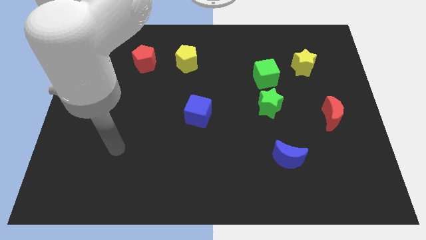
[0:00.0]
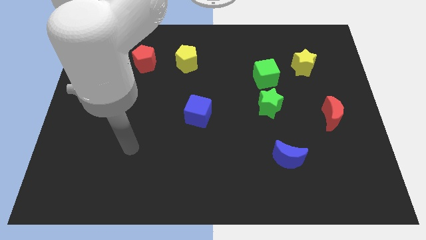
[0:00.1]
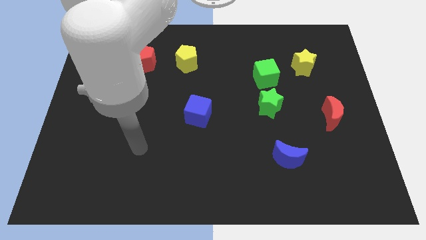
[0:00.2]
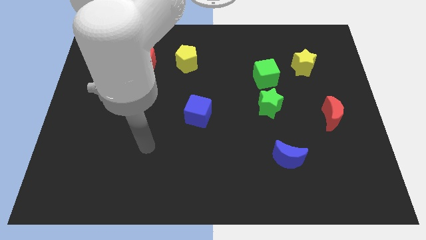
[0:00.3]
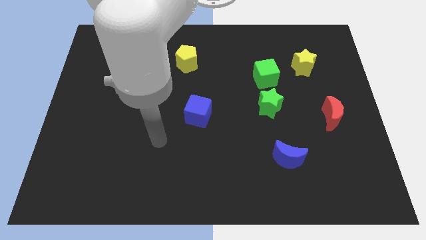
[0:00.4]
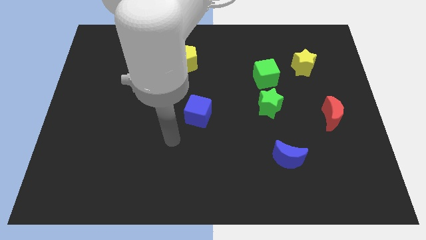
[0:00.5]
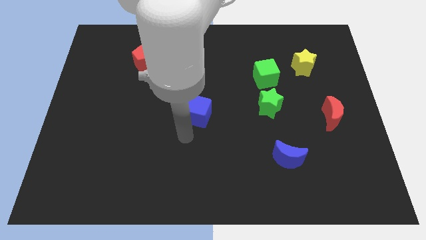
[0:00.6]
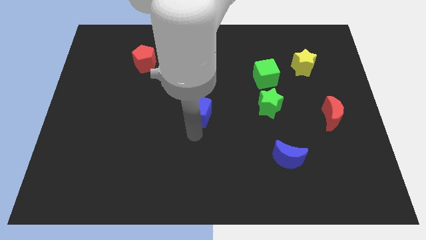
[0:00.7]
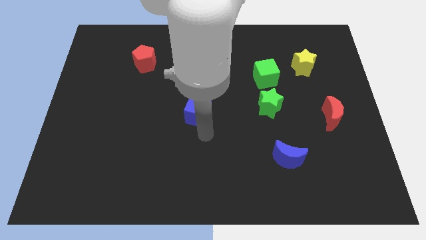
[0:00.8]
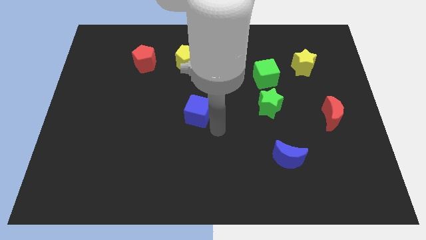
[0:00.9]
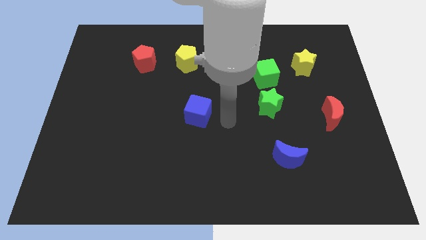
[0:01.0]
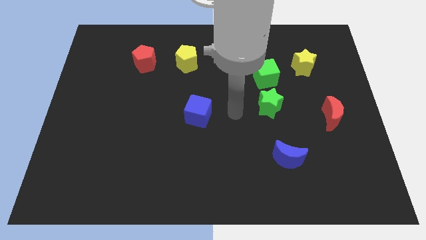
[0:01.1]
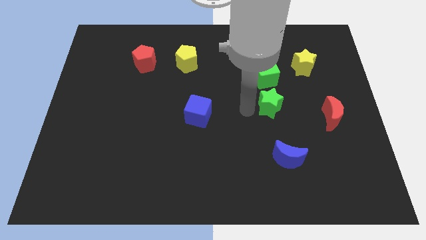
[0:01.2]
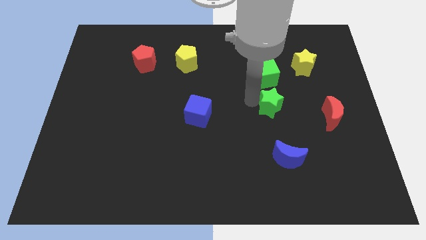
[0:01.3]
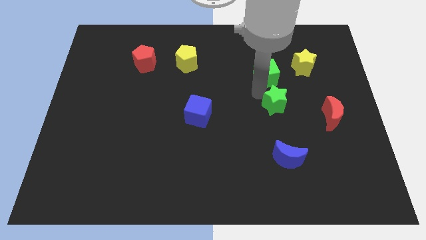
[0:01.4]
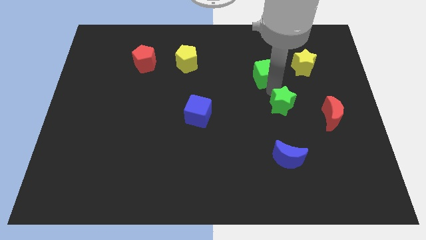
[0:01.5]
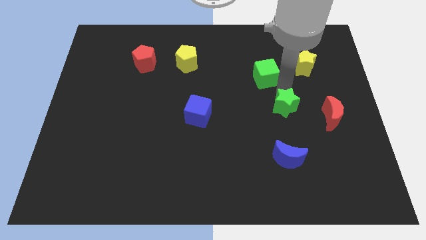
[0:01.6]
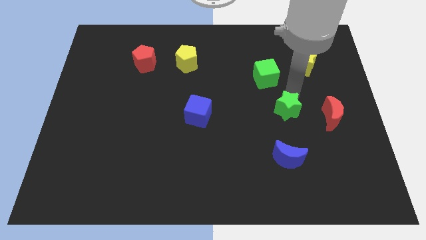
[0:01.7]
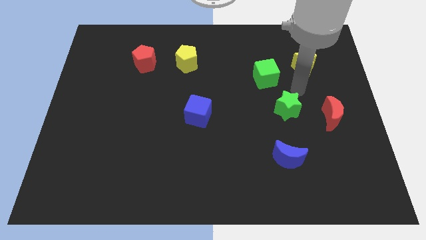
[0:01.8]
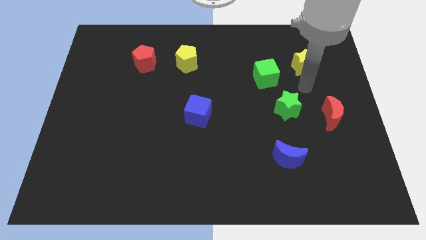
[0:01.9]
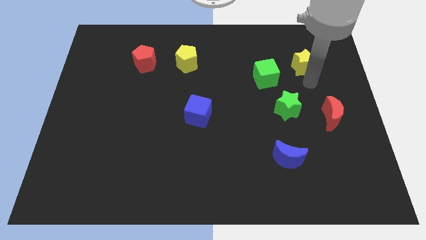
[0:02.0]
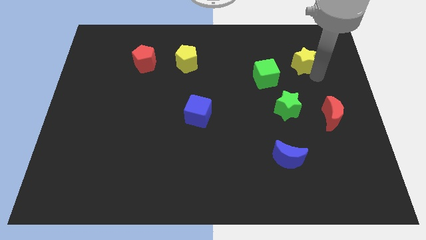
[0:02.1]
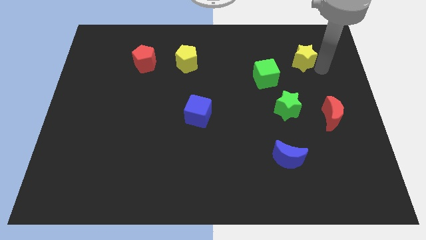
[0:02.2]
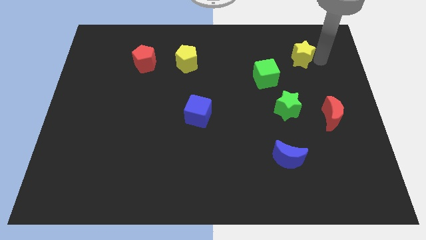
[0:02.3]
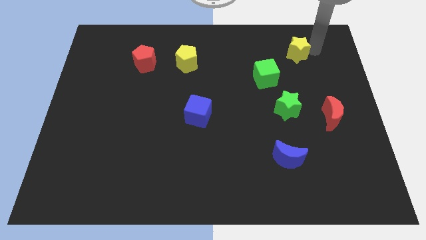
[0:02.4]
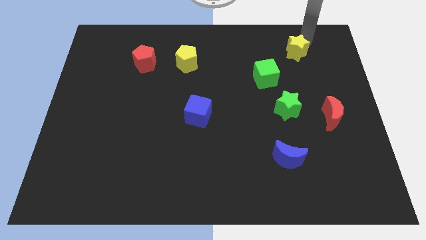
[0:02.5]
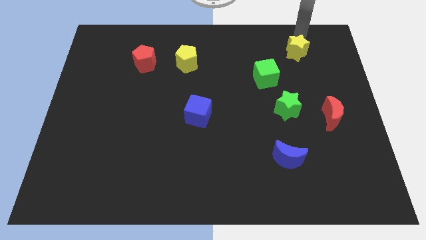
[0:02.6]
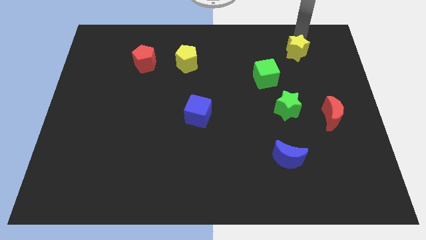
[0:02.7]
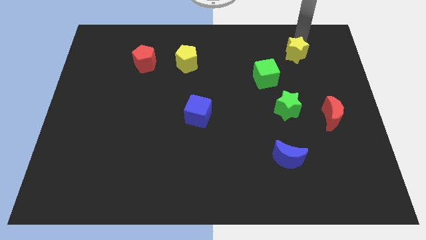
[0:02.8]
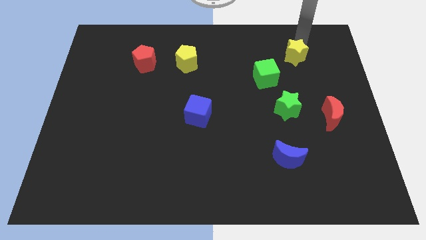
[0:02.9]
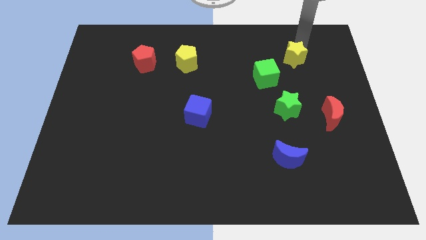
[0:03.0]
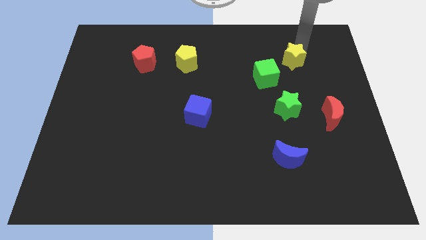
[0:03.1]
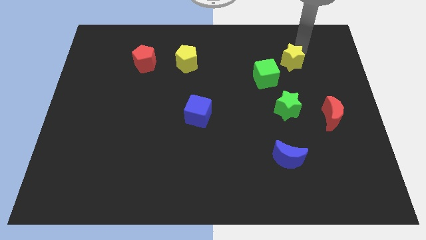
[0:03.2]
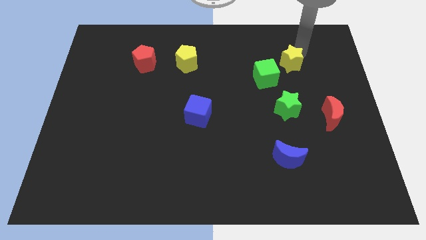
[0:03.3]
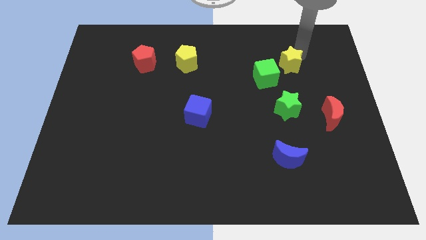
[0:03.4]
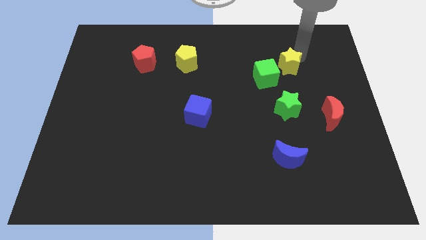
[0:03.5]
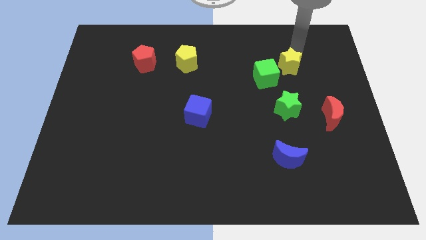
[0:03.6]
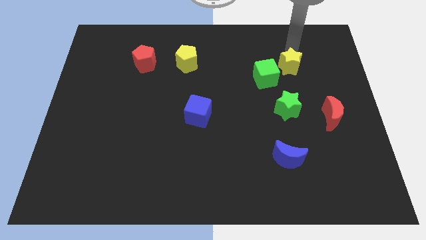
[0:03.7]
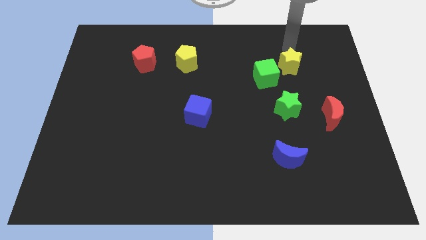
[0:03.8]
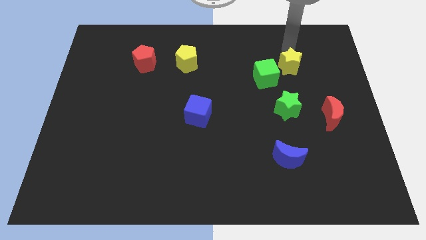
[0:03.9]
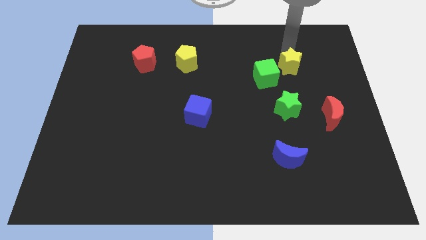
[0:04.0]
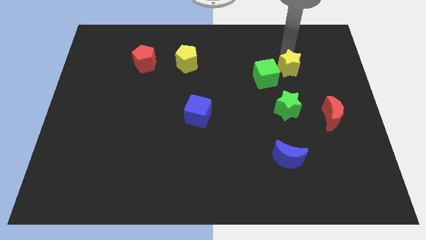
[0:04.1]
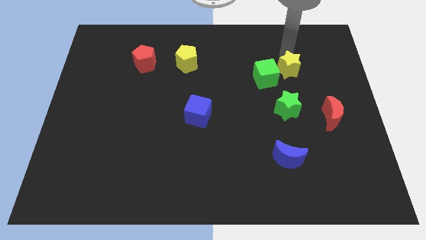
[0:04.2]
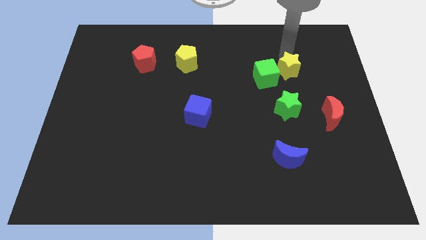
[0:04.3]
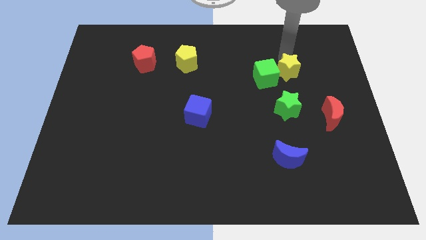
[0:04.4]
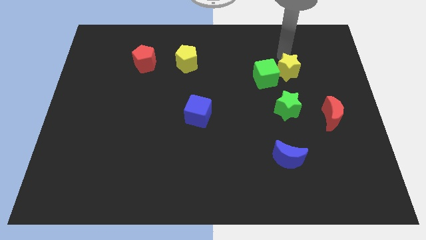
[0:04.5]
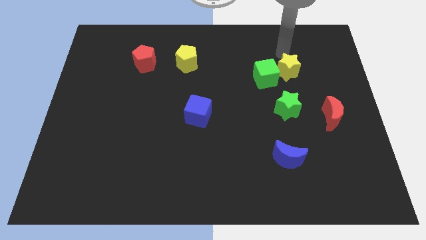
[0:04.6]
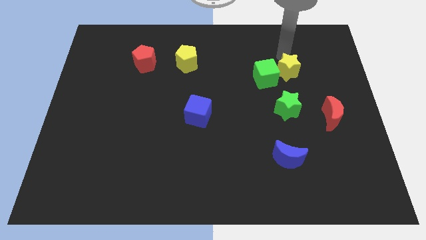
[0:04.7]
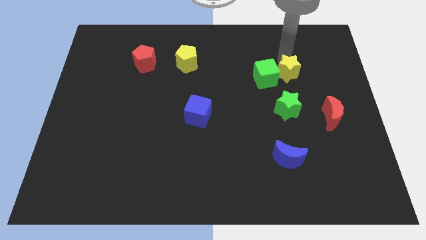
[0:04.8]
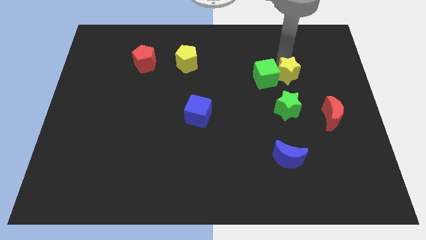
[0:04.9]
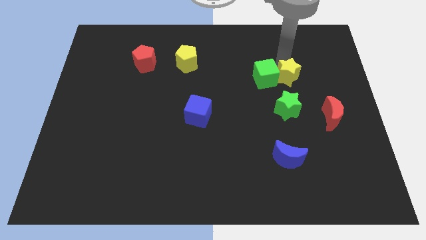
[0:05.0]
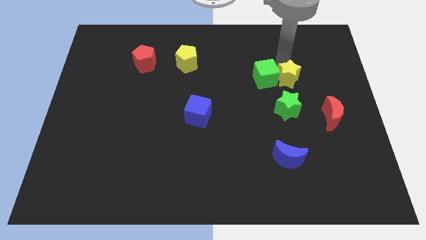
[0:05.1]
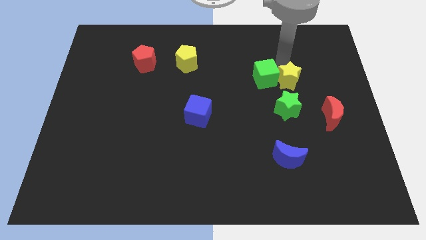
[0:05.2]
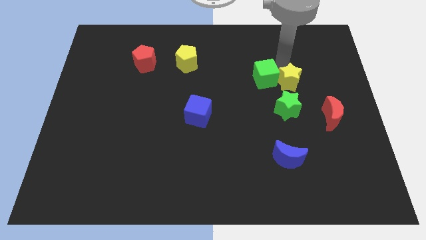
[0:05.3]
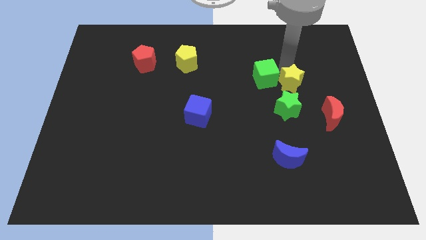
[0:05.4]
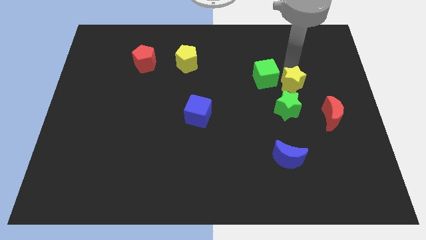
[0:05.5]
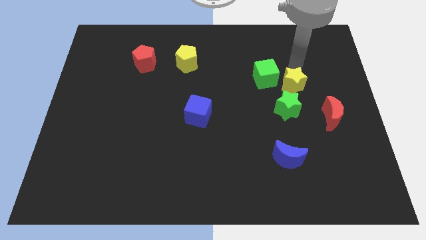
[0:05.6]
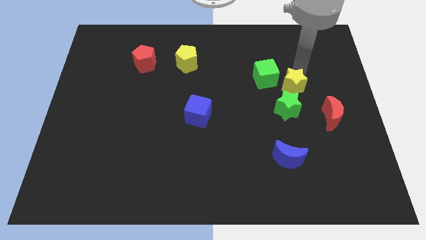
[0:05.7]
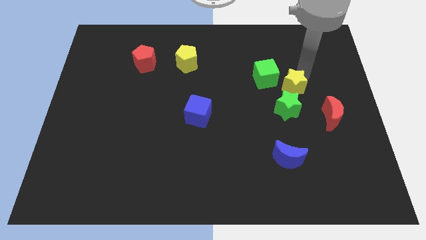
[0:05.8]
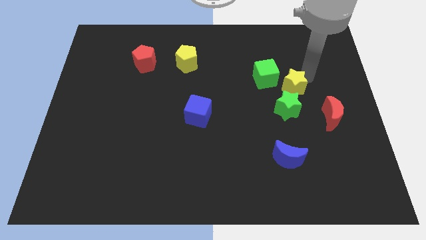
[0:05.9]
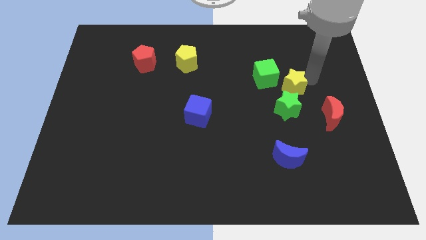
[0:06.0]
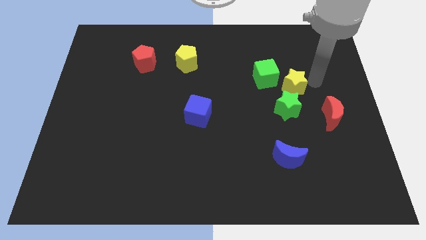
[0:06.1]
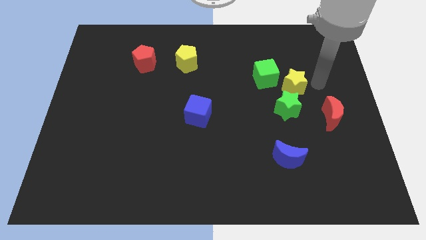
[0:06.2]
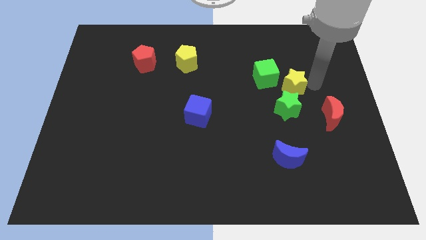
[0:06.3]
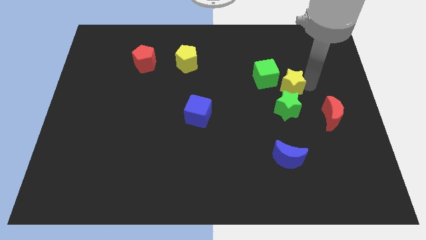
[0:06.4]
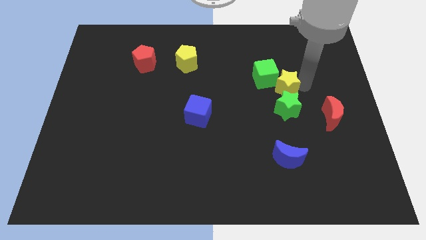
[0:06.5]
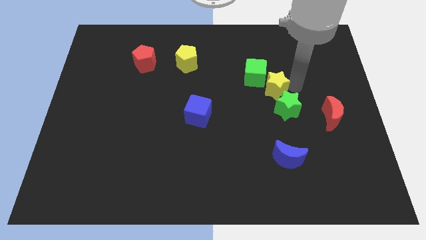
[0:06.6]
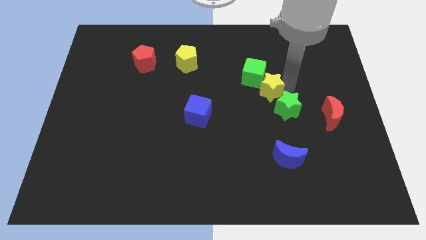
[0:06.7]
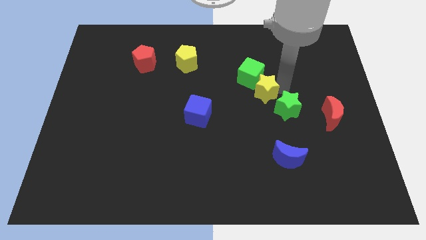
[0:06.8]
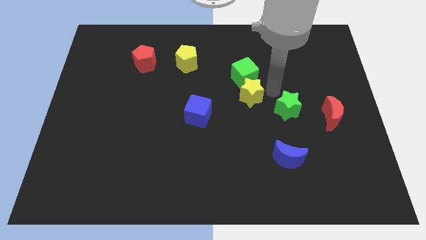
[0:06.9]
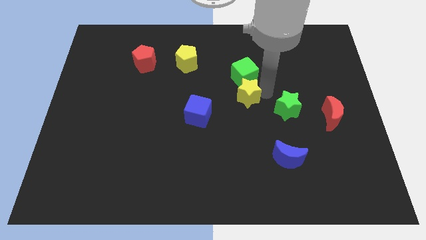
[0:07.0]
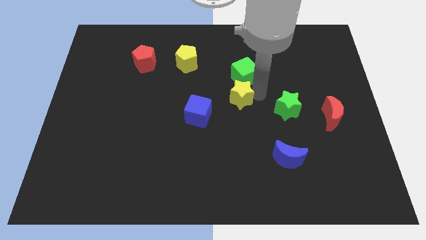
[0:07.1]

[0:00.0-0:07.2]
slide the yellow star to the top right side of the blue cube

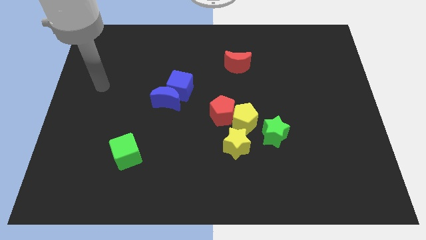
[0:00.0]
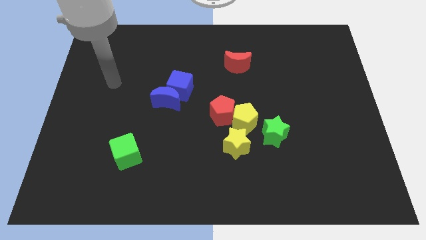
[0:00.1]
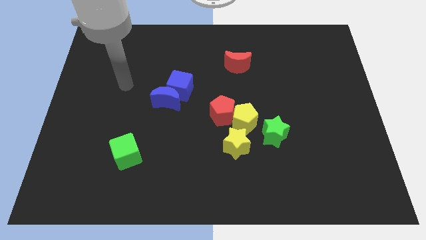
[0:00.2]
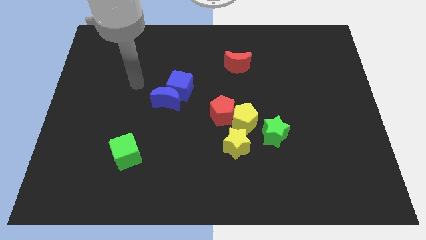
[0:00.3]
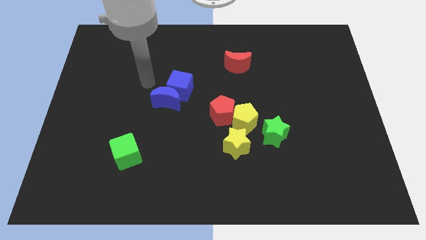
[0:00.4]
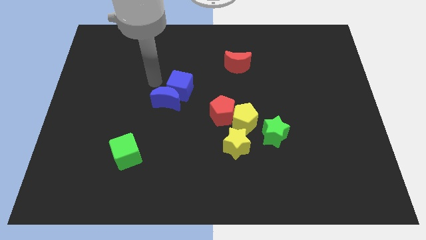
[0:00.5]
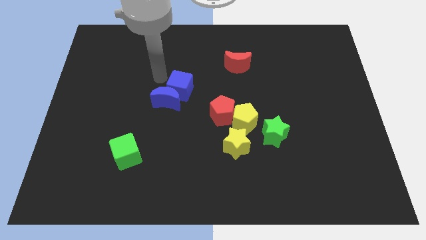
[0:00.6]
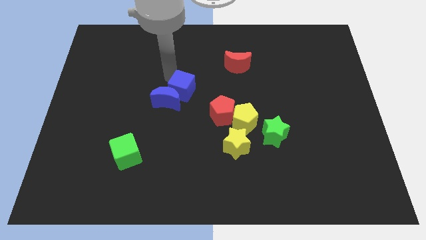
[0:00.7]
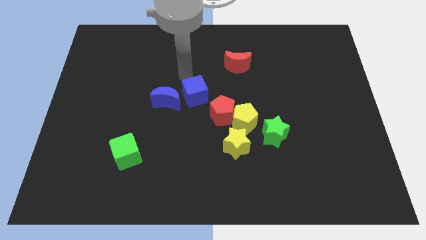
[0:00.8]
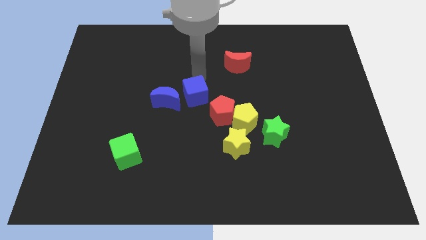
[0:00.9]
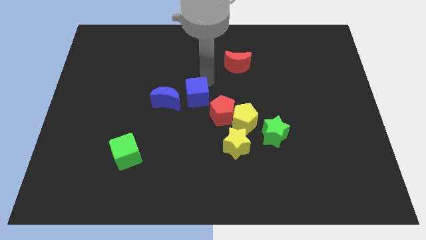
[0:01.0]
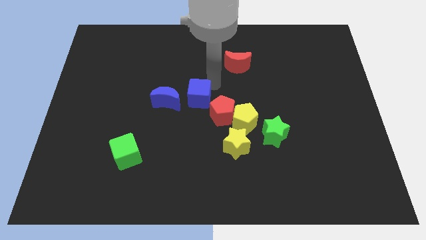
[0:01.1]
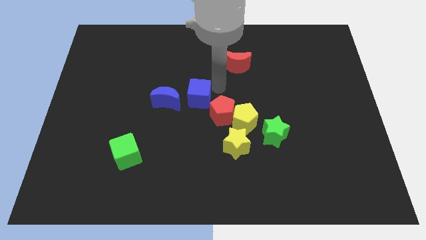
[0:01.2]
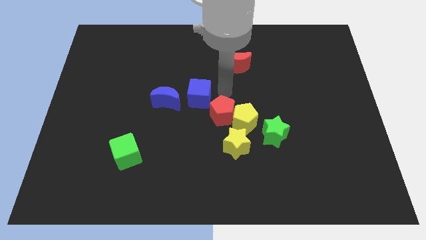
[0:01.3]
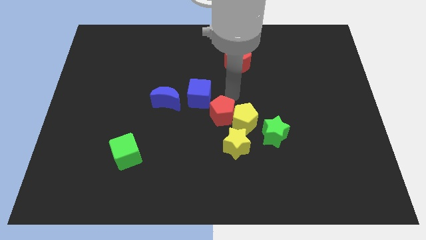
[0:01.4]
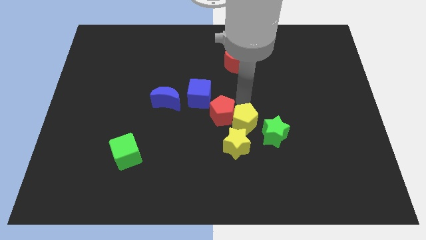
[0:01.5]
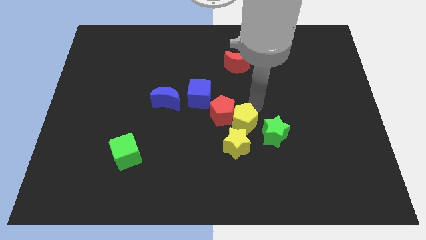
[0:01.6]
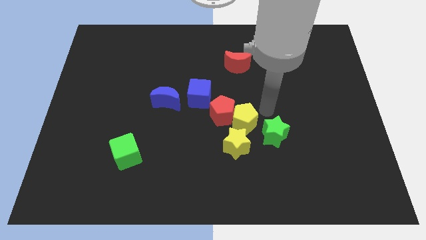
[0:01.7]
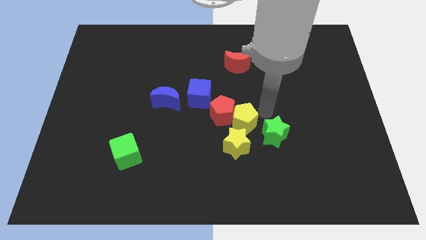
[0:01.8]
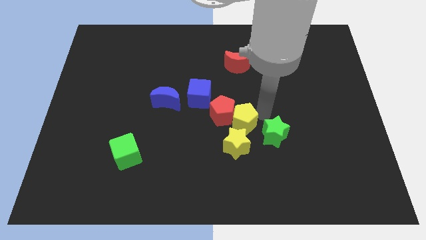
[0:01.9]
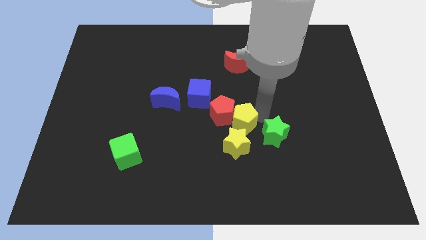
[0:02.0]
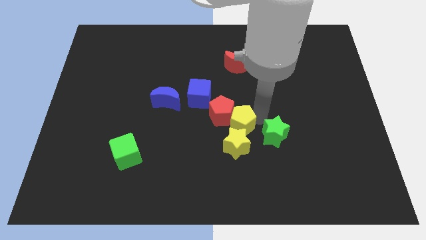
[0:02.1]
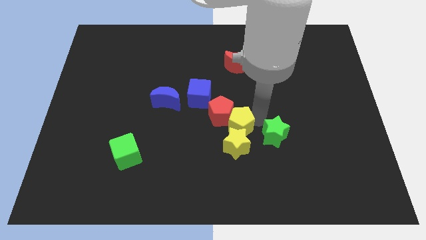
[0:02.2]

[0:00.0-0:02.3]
move the yellow pentagon to the bottom of the red pentagon
